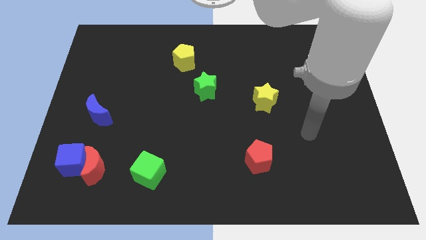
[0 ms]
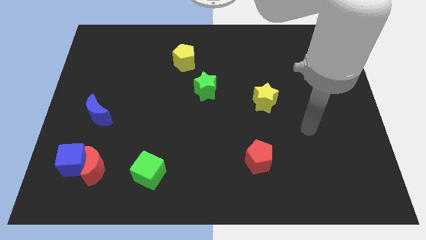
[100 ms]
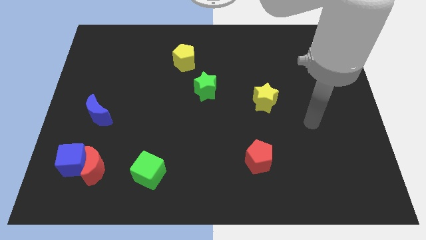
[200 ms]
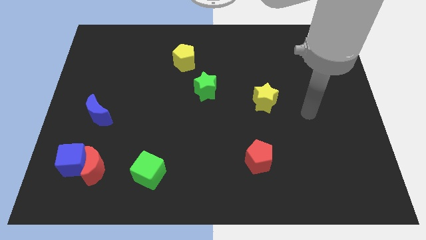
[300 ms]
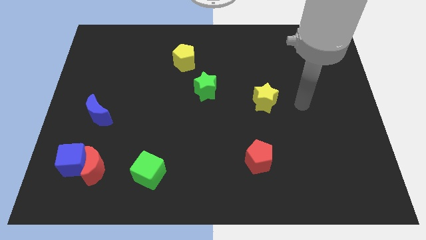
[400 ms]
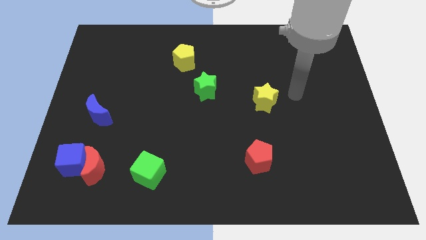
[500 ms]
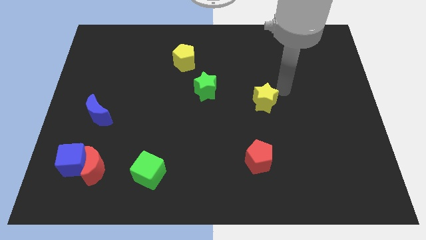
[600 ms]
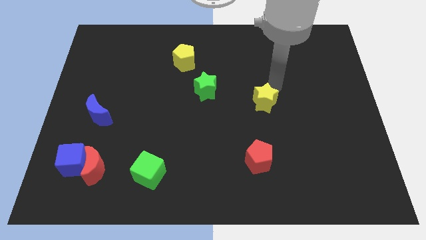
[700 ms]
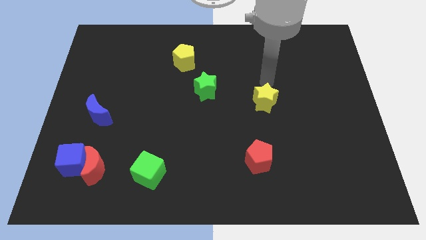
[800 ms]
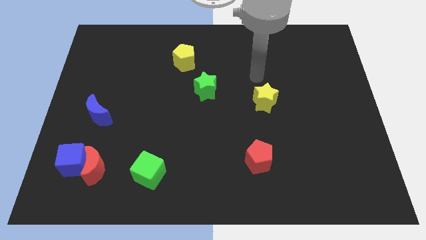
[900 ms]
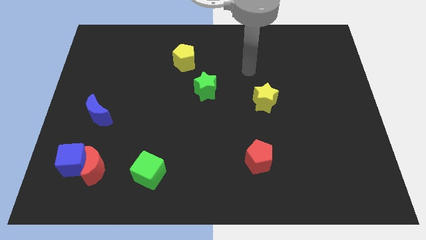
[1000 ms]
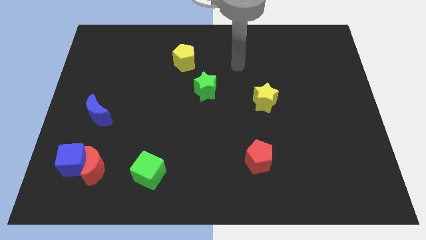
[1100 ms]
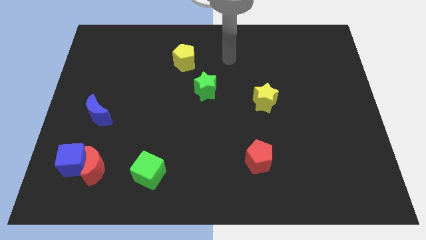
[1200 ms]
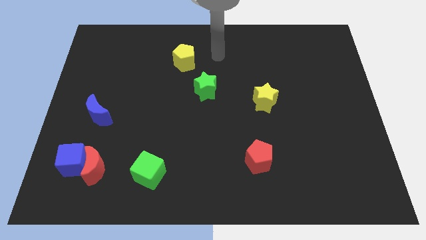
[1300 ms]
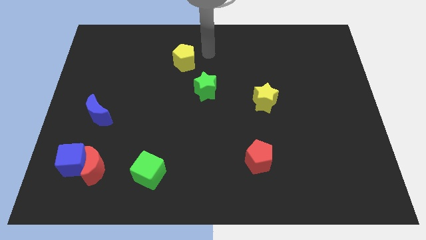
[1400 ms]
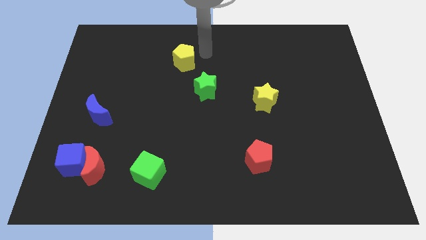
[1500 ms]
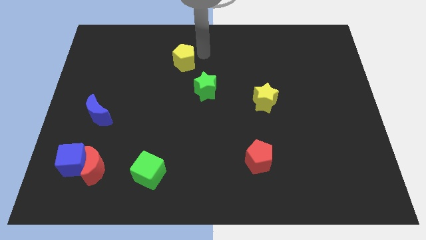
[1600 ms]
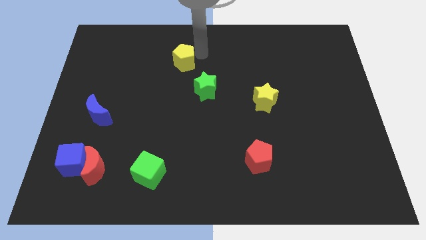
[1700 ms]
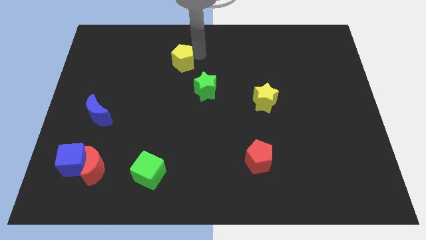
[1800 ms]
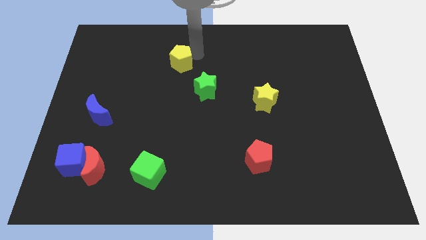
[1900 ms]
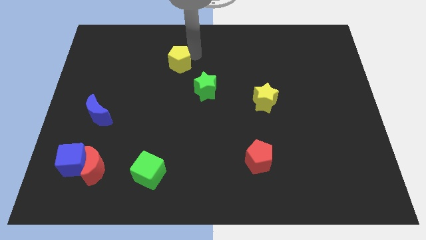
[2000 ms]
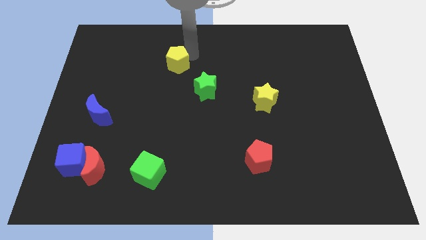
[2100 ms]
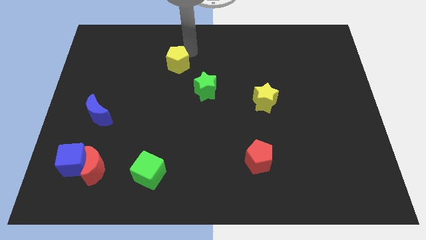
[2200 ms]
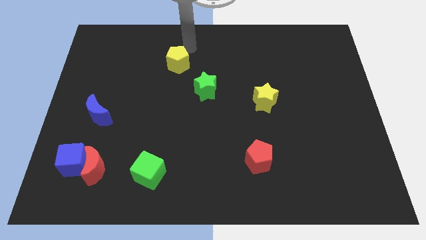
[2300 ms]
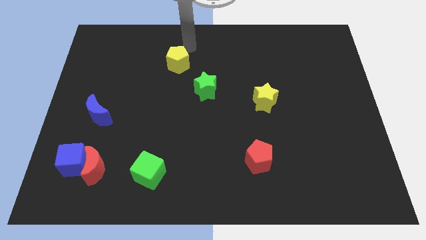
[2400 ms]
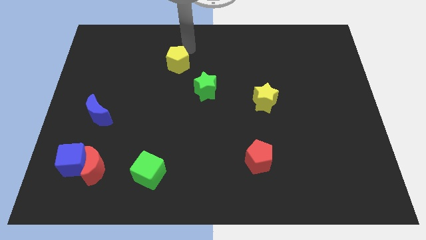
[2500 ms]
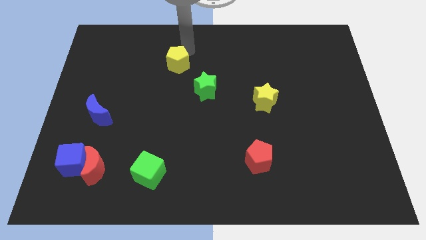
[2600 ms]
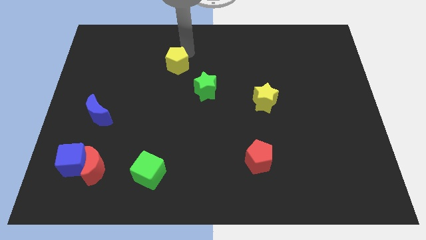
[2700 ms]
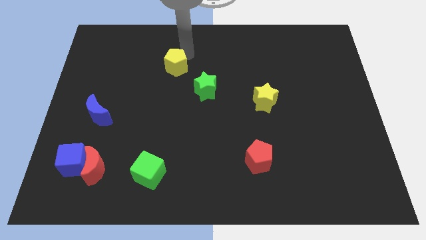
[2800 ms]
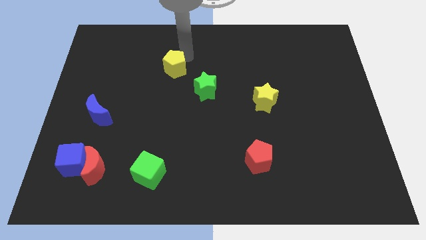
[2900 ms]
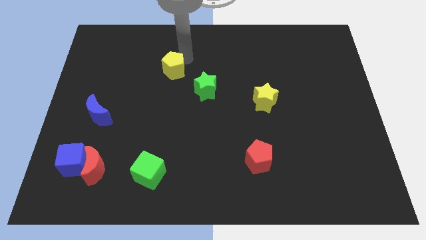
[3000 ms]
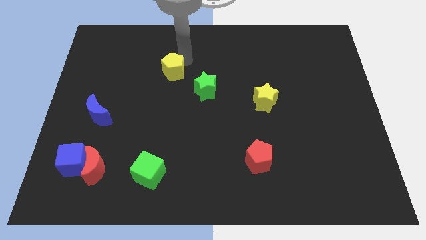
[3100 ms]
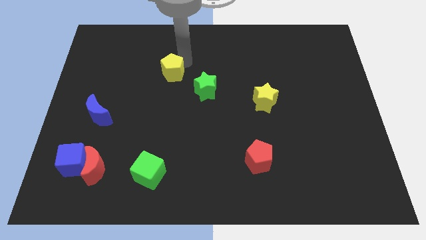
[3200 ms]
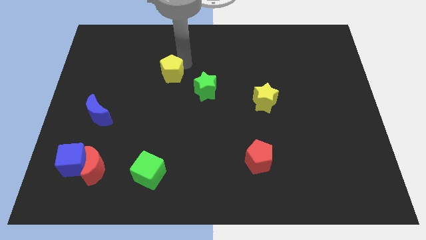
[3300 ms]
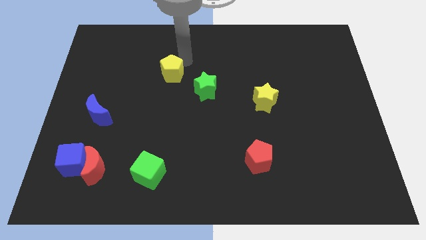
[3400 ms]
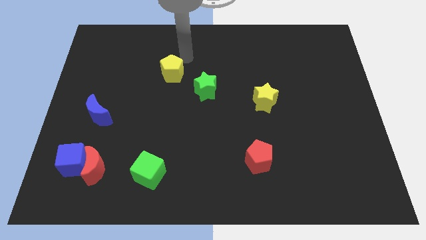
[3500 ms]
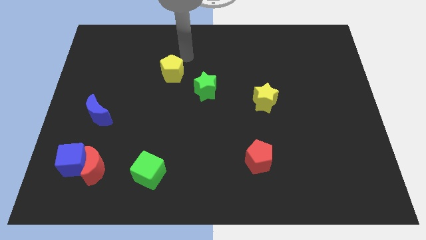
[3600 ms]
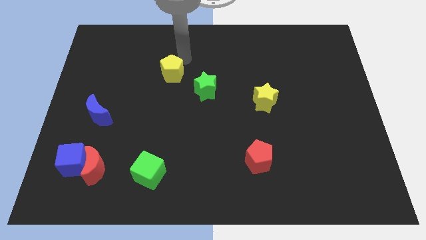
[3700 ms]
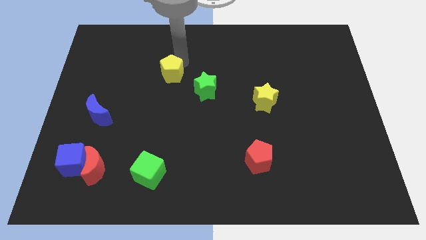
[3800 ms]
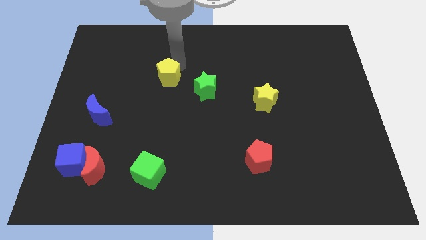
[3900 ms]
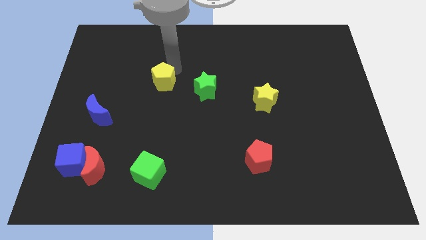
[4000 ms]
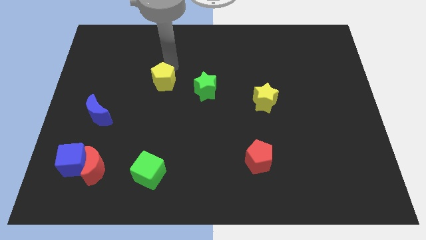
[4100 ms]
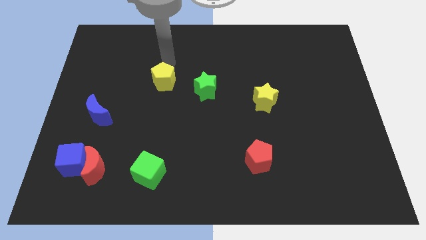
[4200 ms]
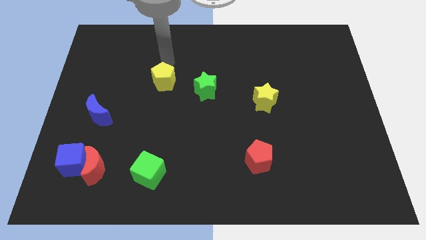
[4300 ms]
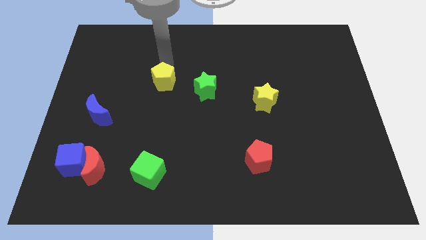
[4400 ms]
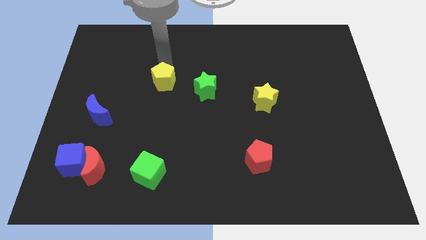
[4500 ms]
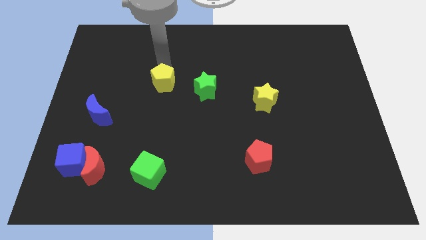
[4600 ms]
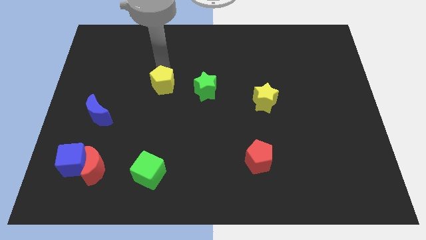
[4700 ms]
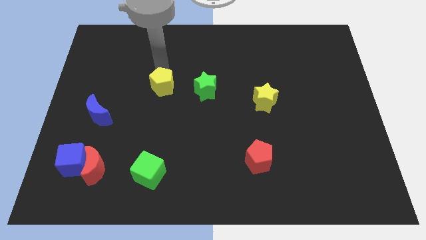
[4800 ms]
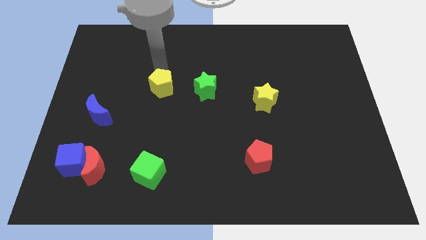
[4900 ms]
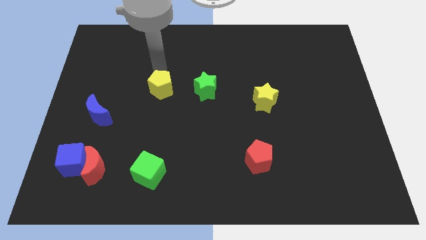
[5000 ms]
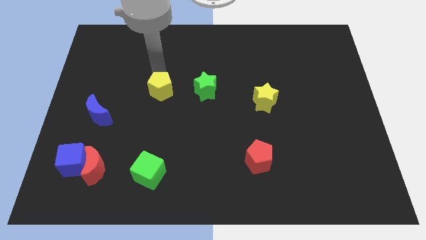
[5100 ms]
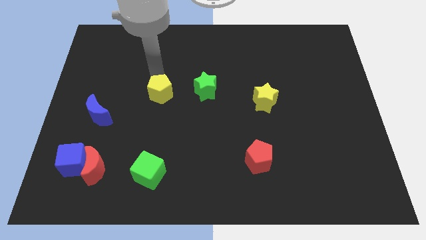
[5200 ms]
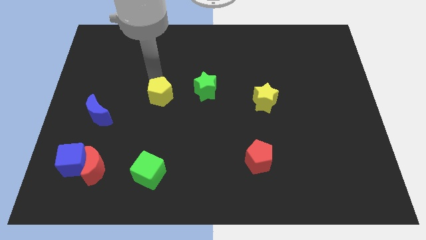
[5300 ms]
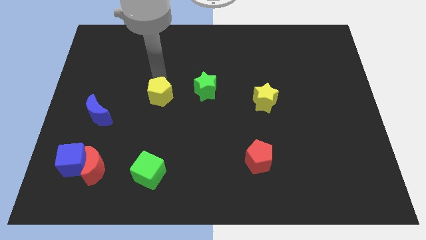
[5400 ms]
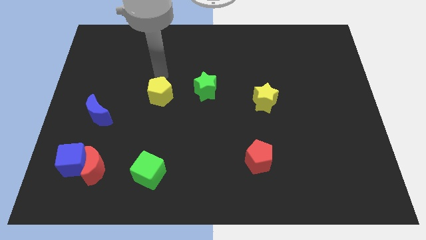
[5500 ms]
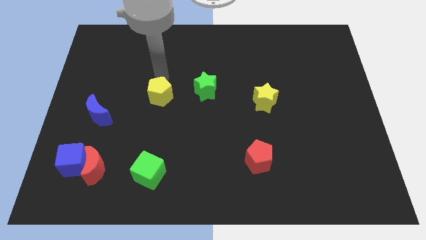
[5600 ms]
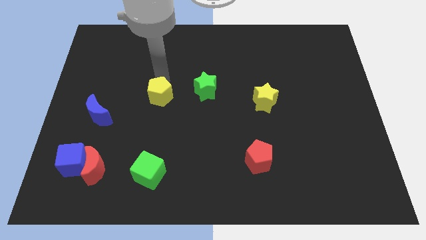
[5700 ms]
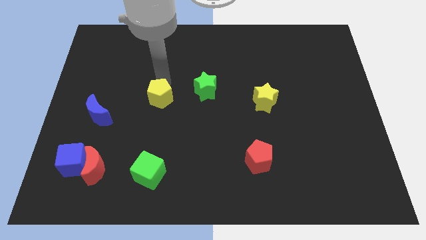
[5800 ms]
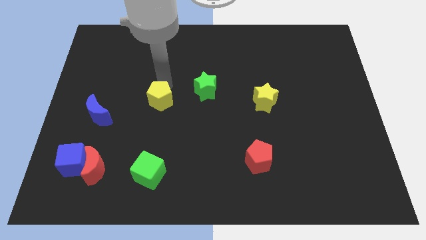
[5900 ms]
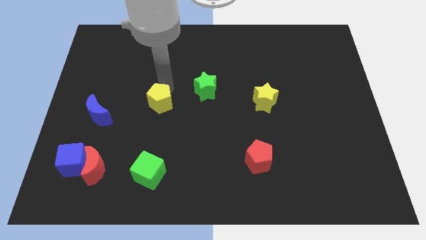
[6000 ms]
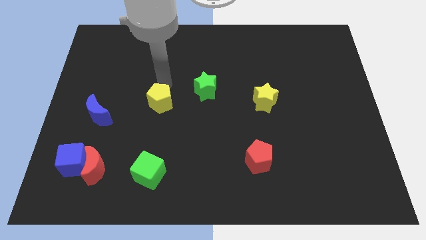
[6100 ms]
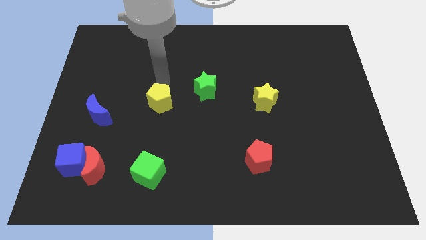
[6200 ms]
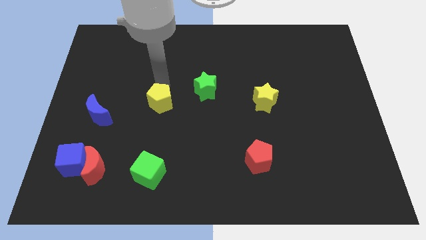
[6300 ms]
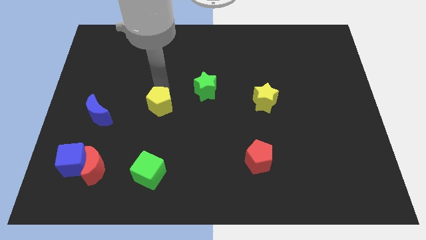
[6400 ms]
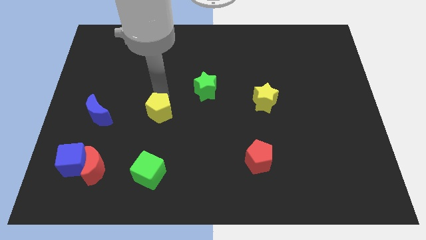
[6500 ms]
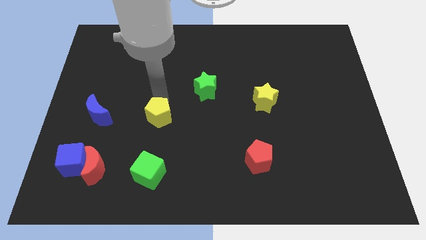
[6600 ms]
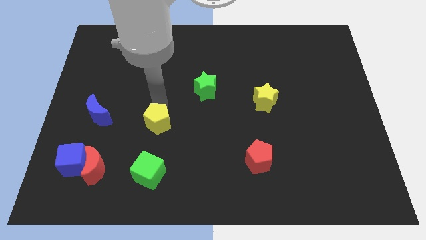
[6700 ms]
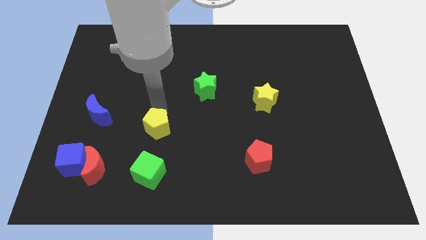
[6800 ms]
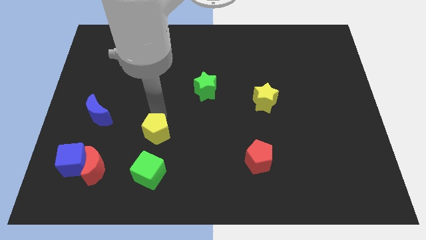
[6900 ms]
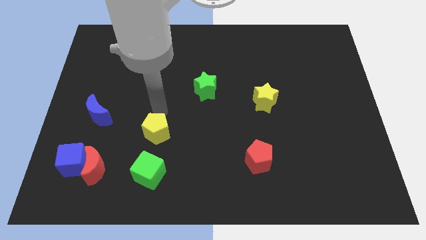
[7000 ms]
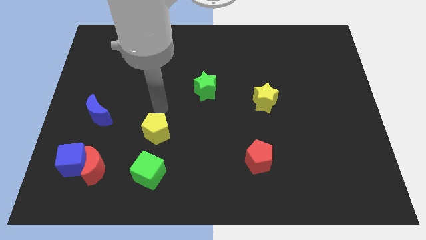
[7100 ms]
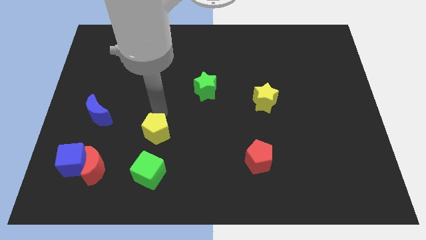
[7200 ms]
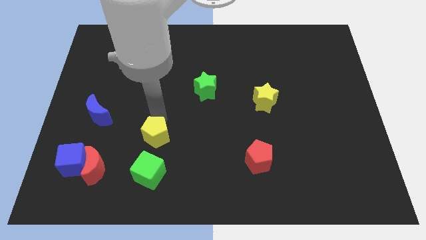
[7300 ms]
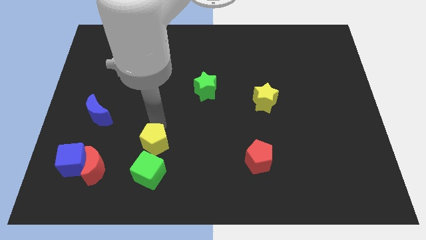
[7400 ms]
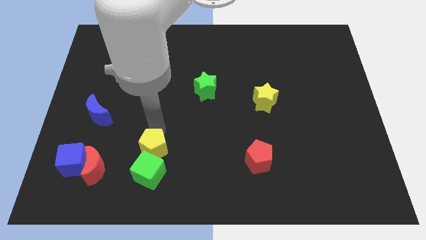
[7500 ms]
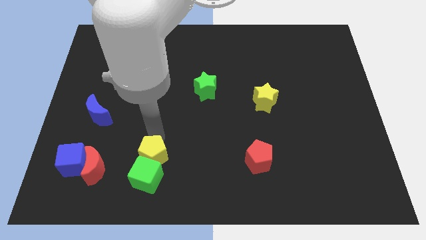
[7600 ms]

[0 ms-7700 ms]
push the yellow pentagon next to the green cube
